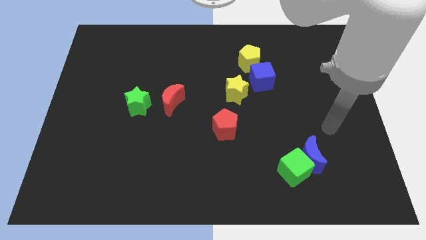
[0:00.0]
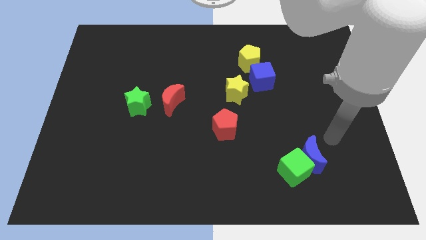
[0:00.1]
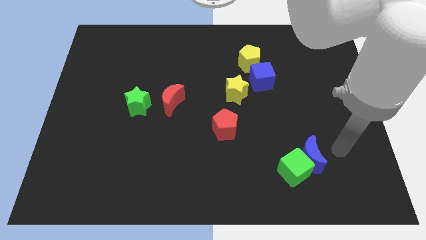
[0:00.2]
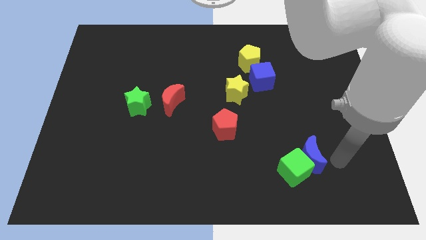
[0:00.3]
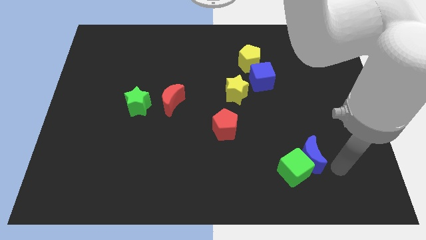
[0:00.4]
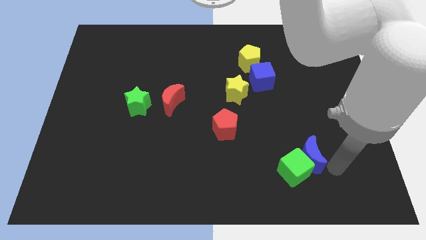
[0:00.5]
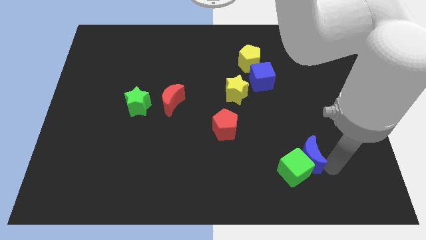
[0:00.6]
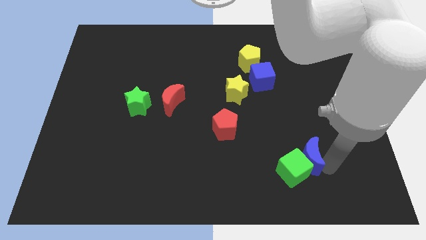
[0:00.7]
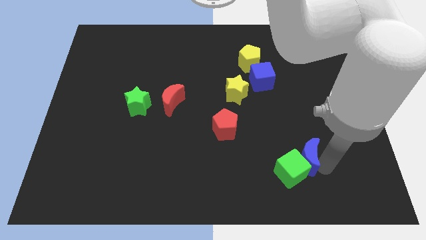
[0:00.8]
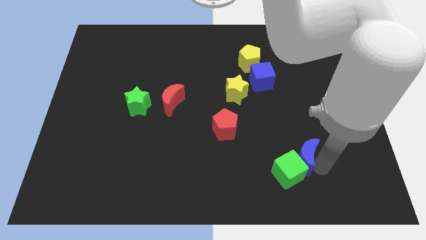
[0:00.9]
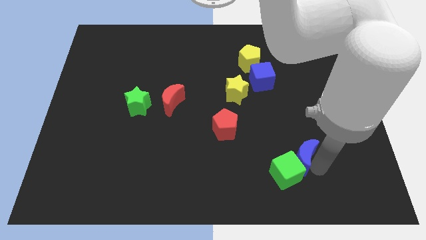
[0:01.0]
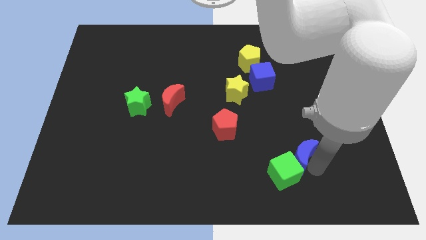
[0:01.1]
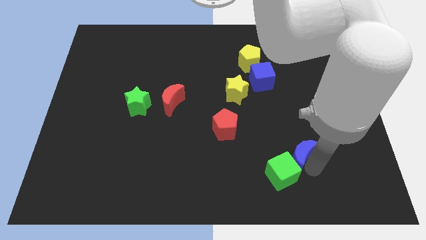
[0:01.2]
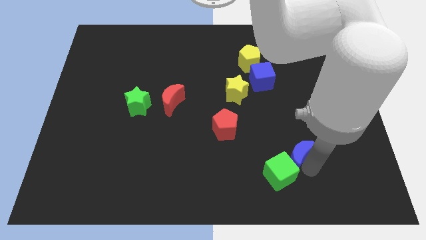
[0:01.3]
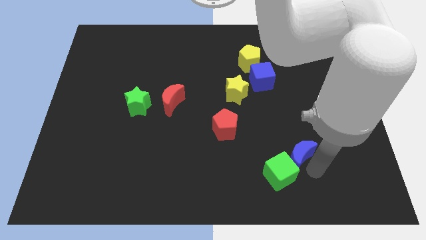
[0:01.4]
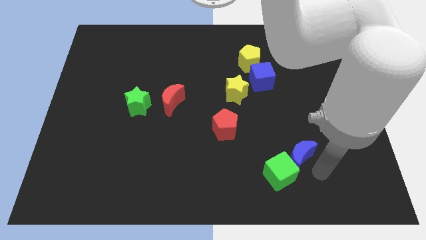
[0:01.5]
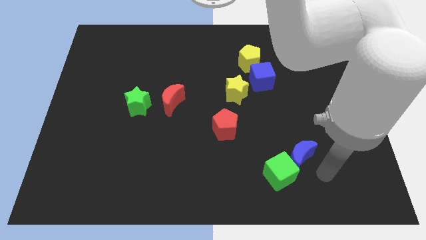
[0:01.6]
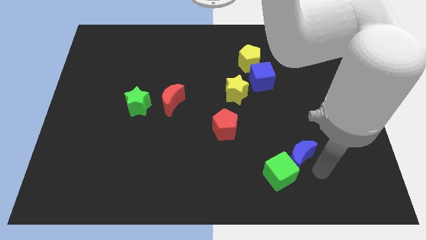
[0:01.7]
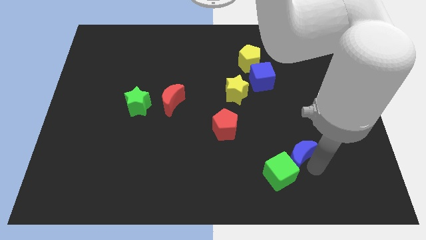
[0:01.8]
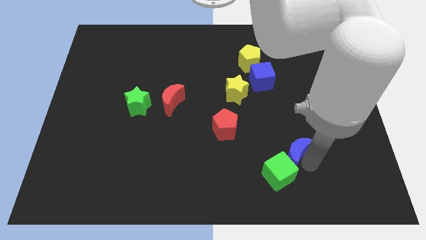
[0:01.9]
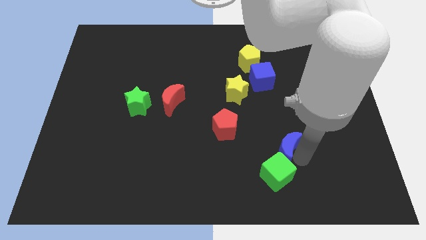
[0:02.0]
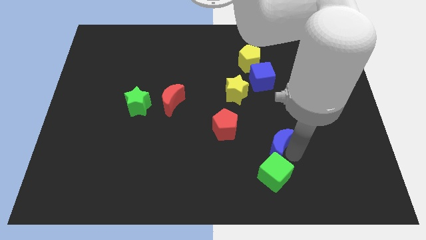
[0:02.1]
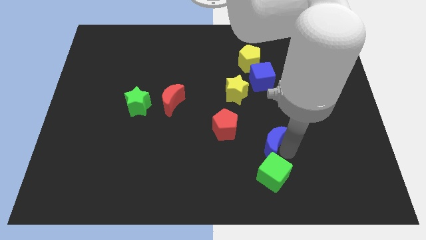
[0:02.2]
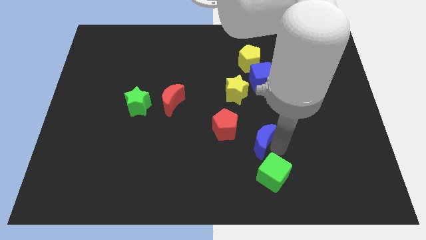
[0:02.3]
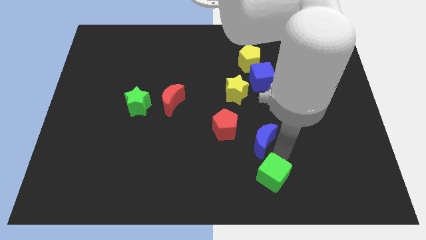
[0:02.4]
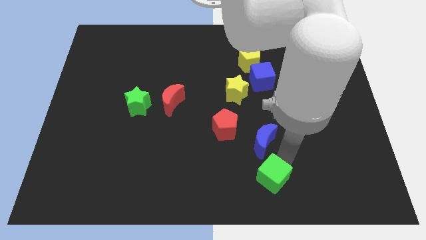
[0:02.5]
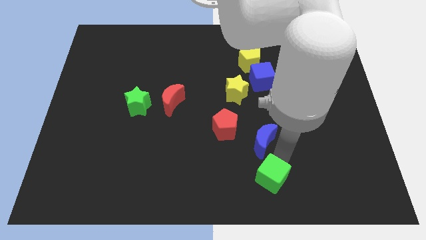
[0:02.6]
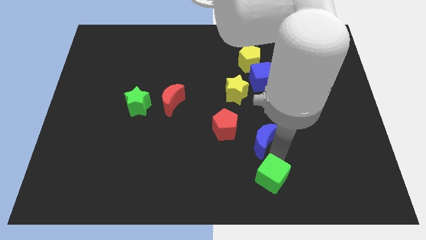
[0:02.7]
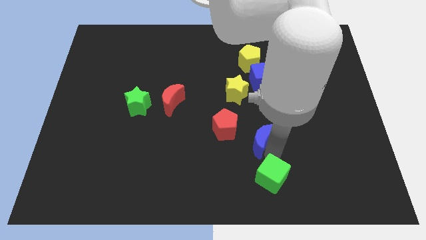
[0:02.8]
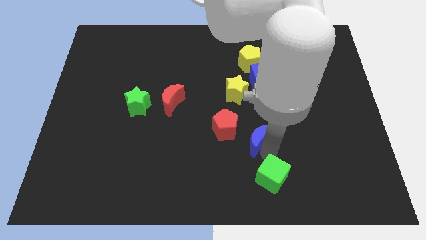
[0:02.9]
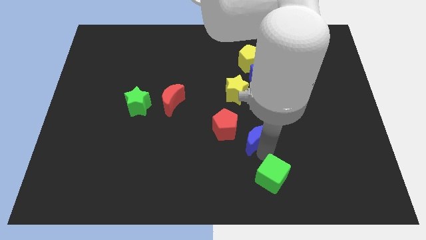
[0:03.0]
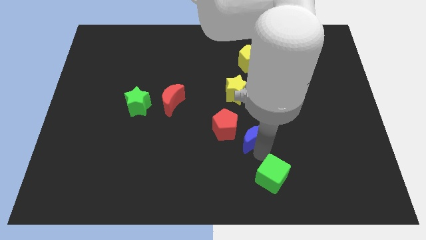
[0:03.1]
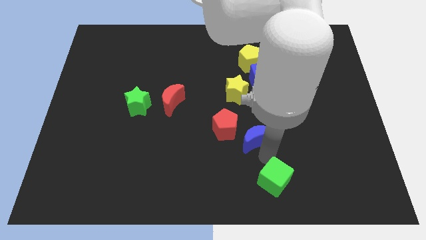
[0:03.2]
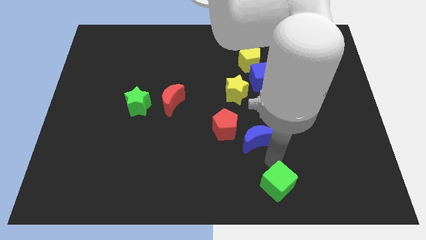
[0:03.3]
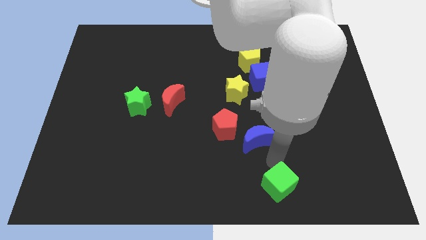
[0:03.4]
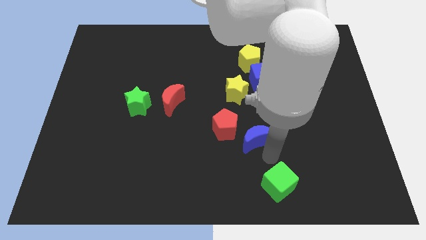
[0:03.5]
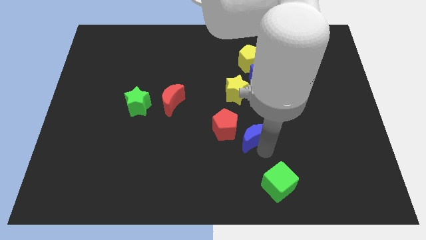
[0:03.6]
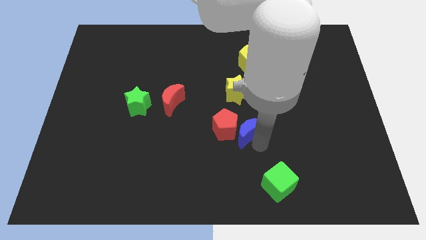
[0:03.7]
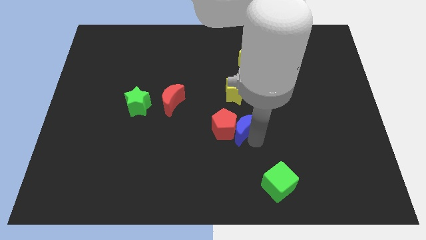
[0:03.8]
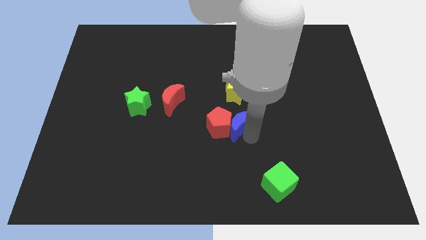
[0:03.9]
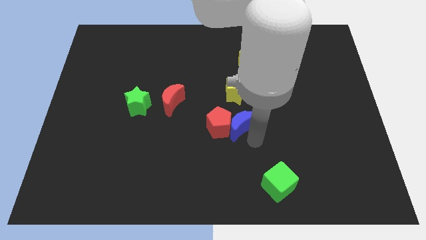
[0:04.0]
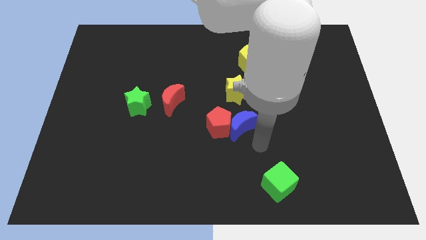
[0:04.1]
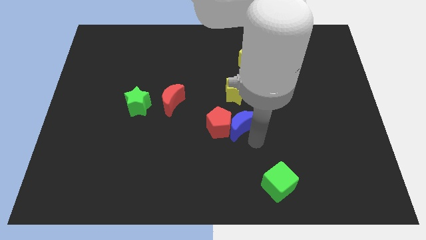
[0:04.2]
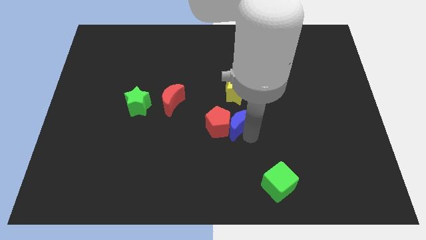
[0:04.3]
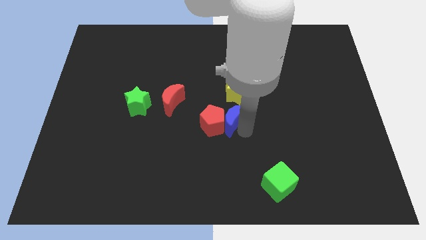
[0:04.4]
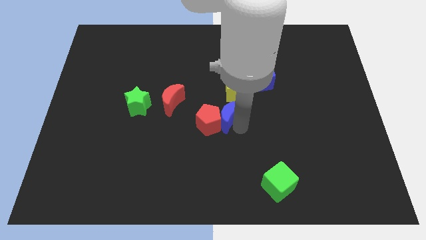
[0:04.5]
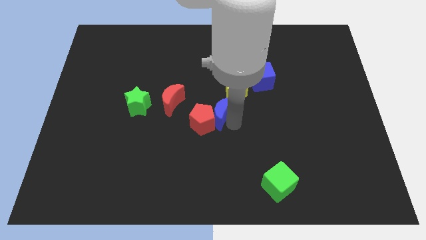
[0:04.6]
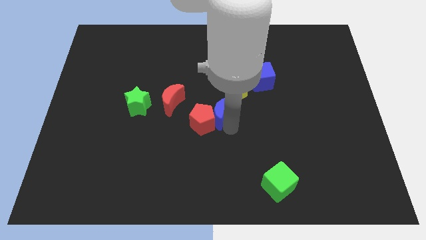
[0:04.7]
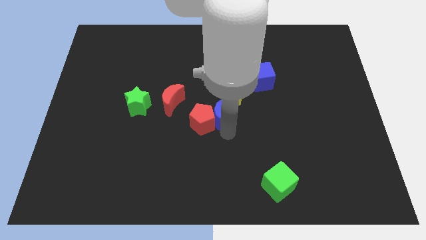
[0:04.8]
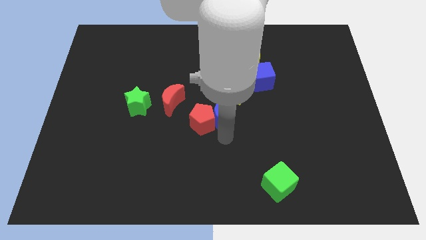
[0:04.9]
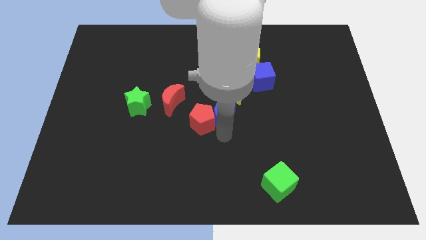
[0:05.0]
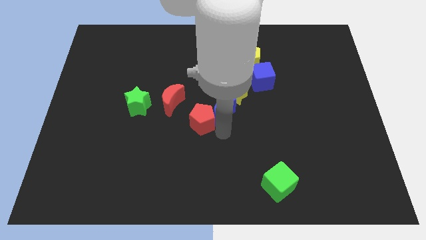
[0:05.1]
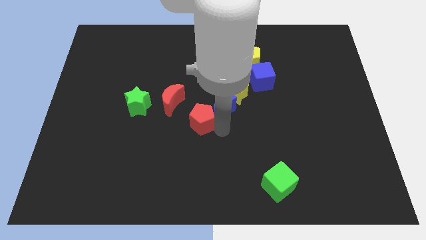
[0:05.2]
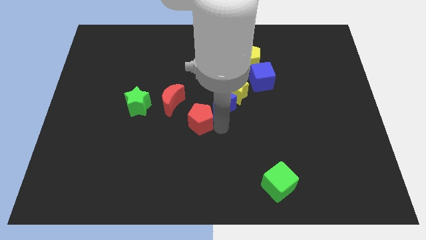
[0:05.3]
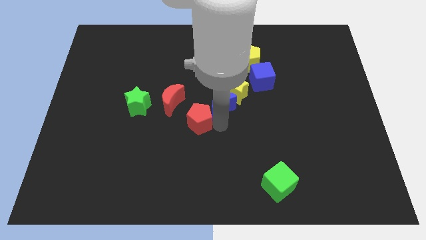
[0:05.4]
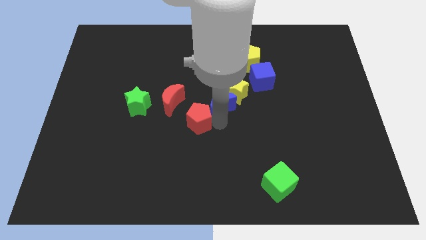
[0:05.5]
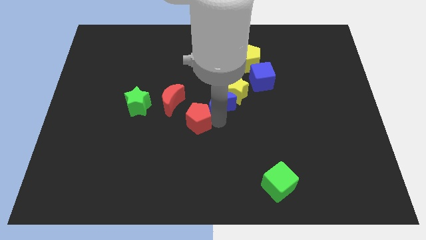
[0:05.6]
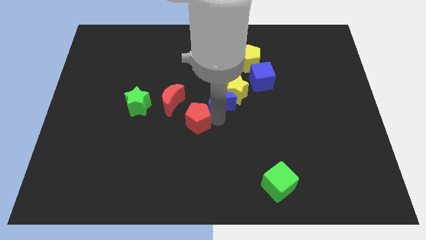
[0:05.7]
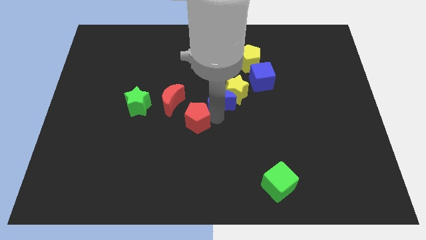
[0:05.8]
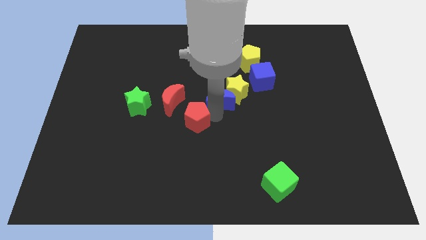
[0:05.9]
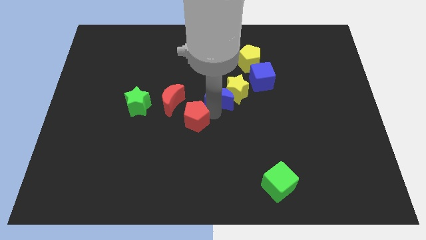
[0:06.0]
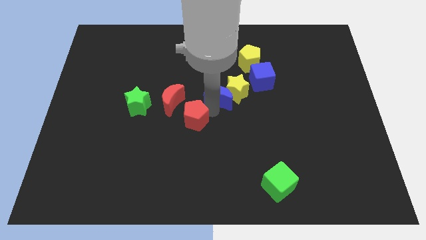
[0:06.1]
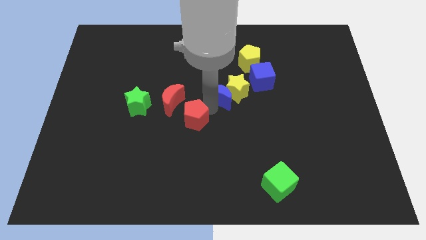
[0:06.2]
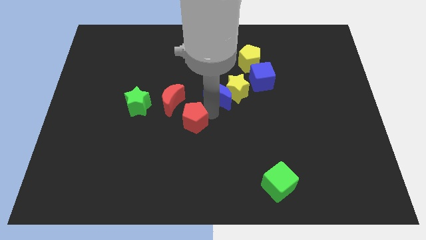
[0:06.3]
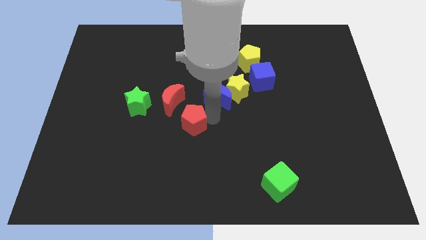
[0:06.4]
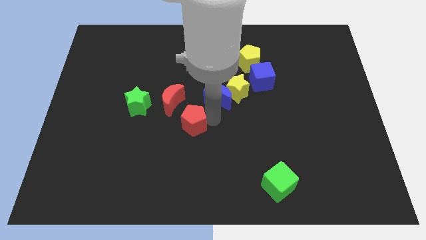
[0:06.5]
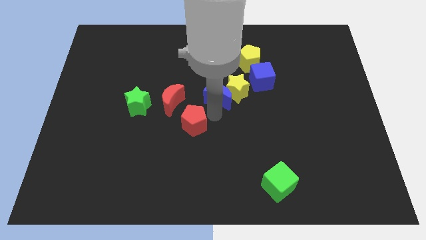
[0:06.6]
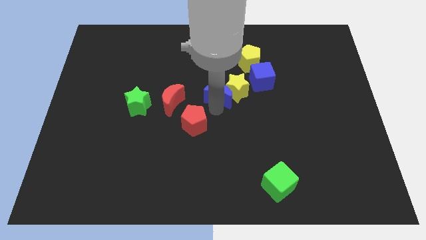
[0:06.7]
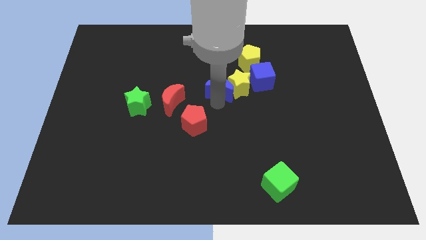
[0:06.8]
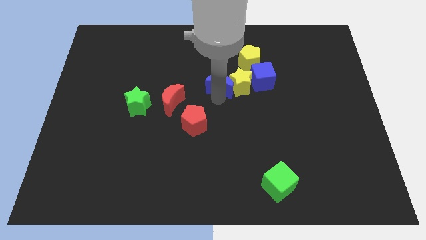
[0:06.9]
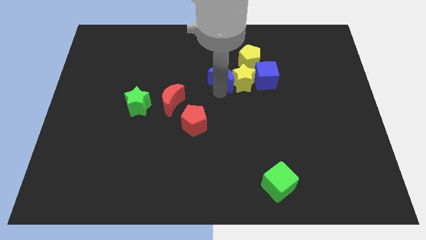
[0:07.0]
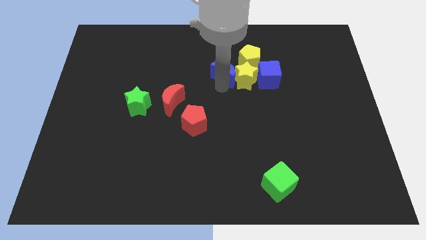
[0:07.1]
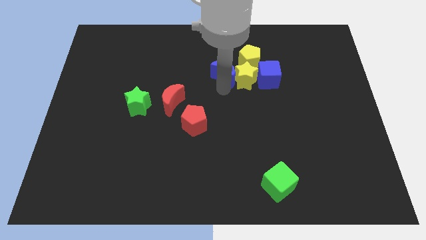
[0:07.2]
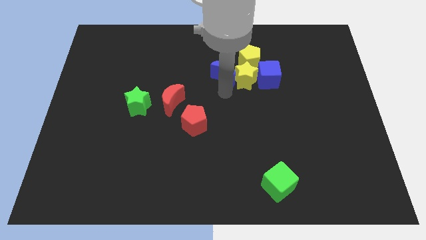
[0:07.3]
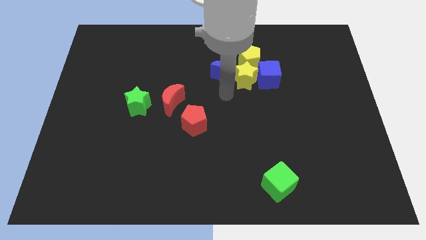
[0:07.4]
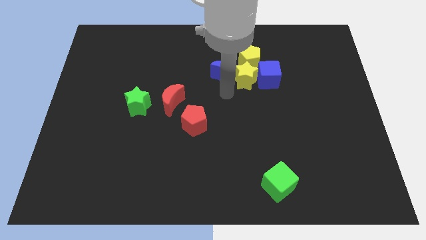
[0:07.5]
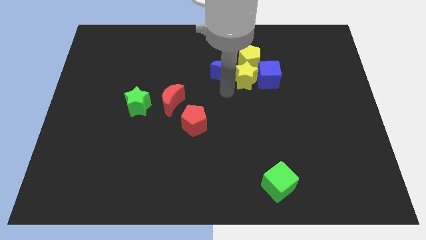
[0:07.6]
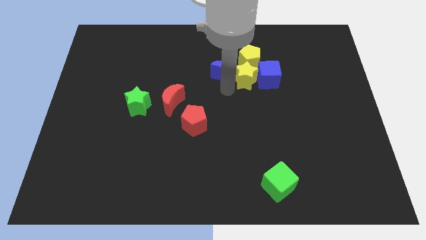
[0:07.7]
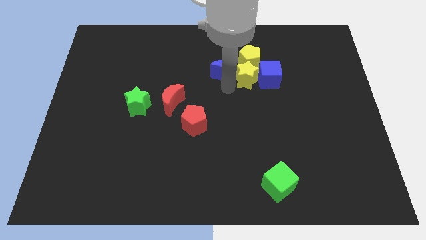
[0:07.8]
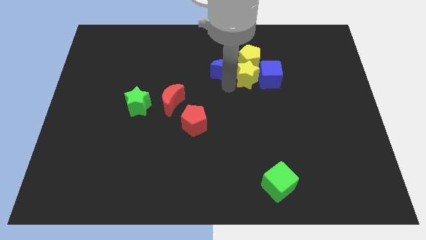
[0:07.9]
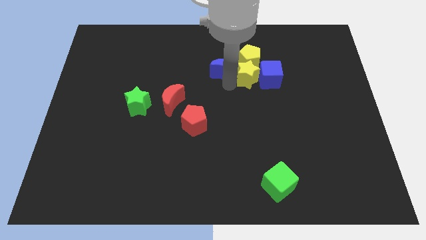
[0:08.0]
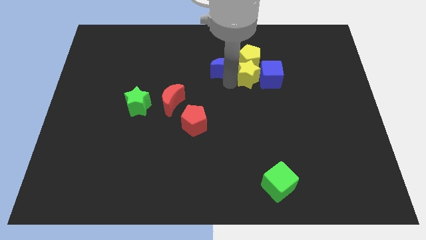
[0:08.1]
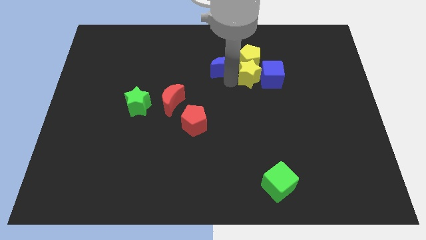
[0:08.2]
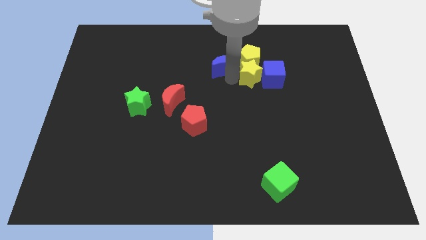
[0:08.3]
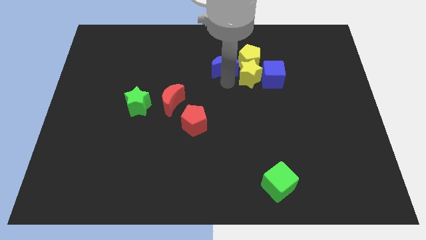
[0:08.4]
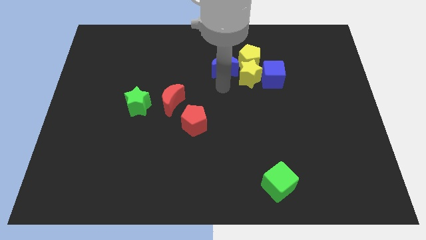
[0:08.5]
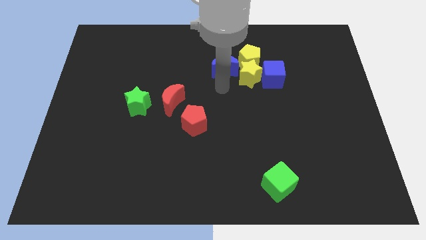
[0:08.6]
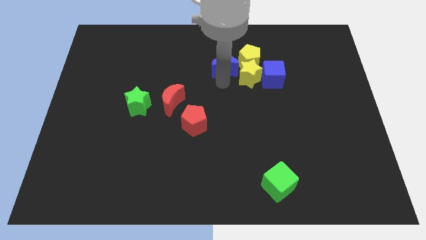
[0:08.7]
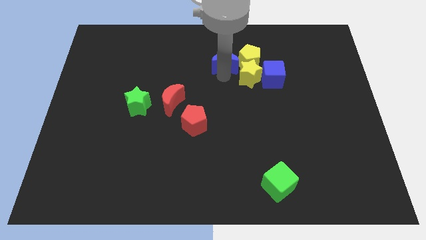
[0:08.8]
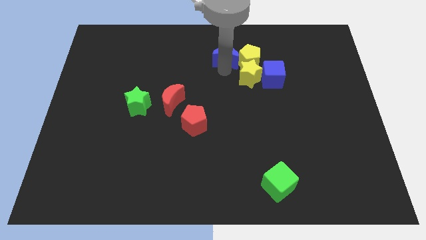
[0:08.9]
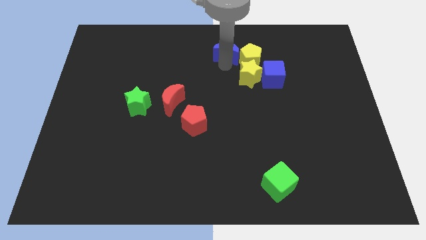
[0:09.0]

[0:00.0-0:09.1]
slide the blue moon to the top
